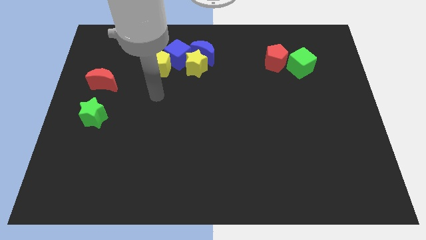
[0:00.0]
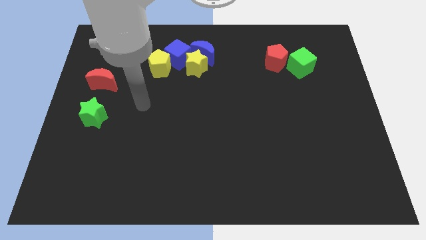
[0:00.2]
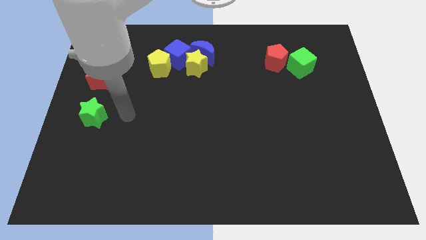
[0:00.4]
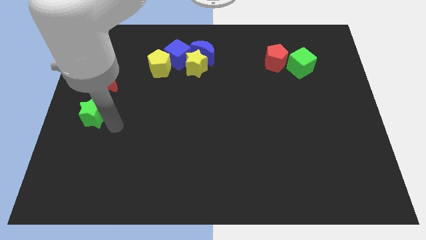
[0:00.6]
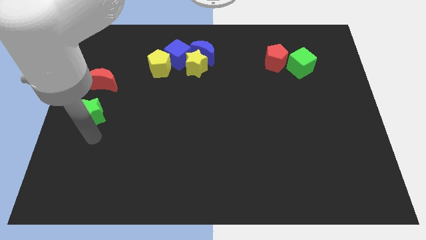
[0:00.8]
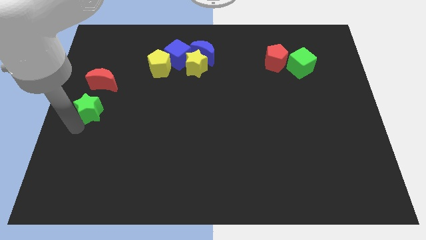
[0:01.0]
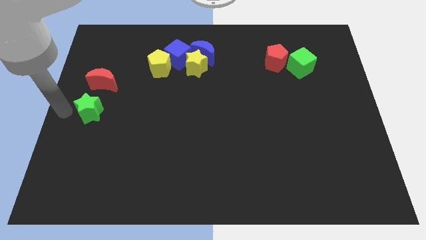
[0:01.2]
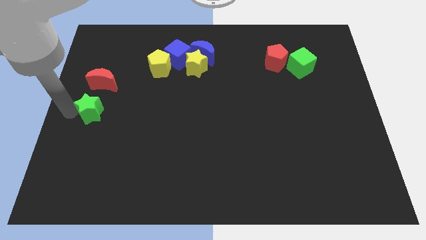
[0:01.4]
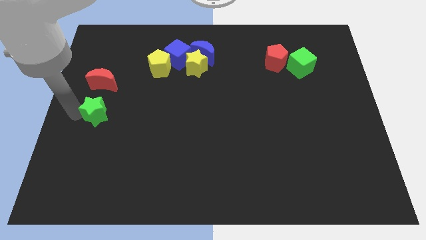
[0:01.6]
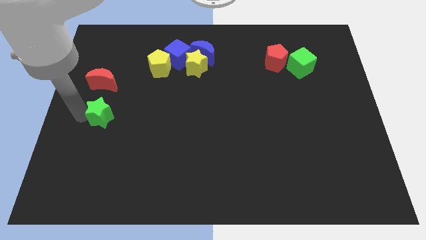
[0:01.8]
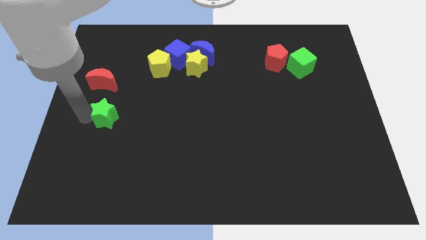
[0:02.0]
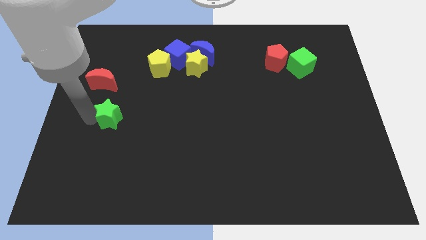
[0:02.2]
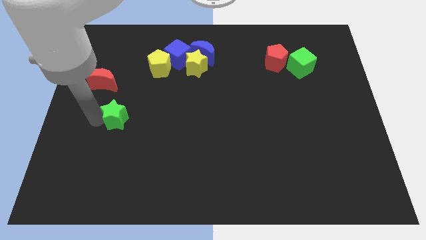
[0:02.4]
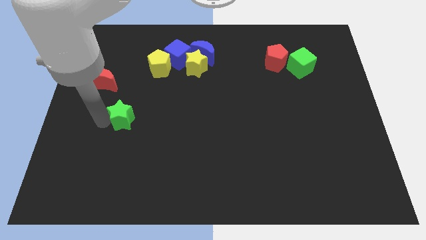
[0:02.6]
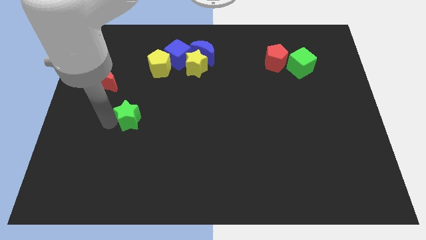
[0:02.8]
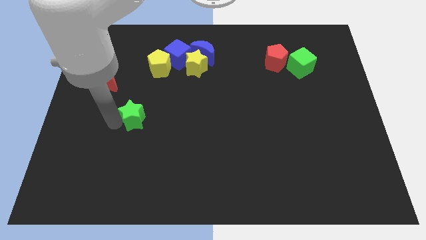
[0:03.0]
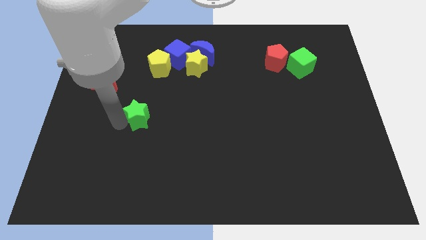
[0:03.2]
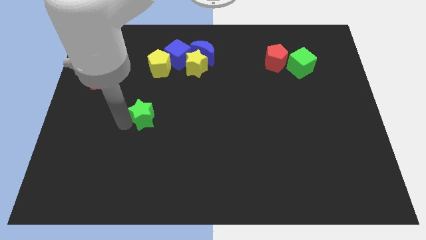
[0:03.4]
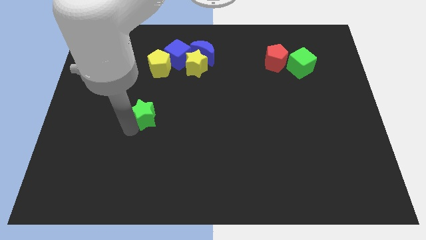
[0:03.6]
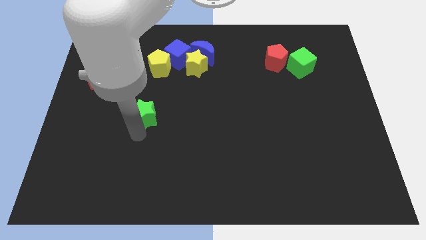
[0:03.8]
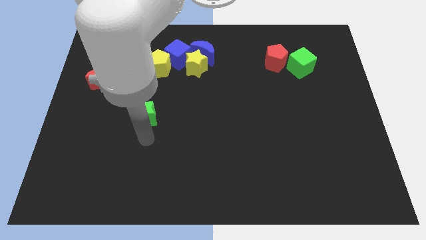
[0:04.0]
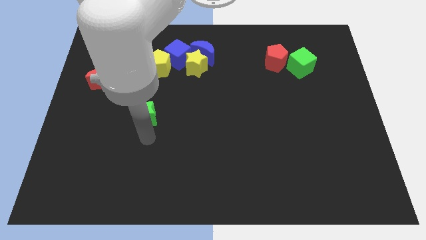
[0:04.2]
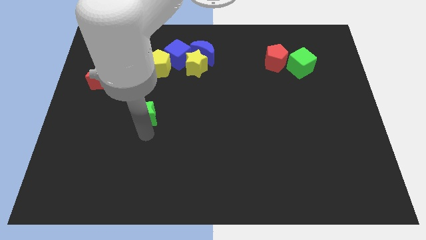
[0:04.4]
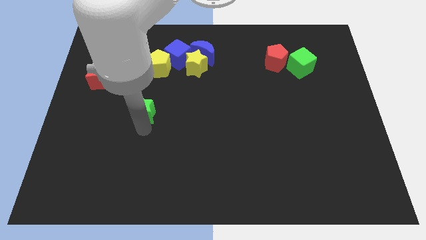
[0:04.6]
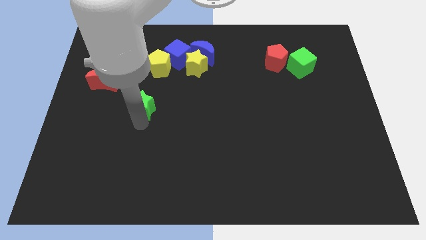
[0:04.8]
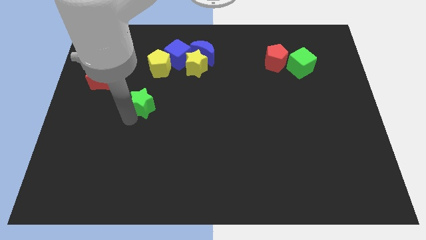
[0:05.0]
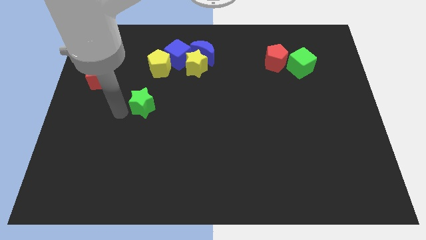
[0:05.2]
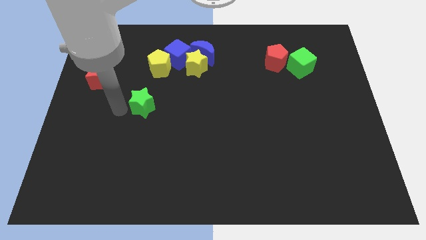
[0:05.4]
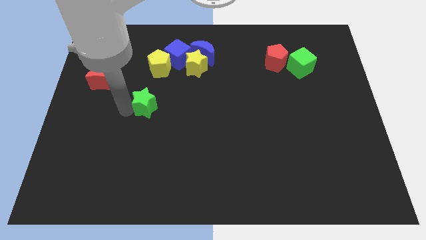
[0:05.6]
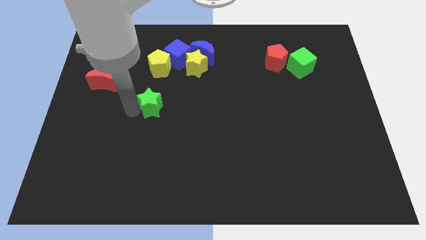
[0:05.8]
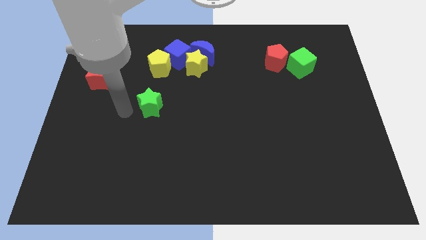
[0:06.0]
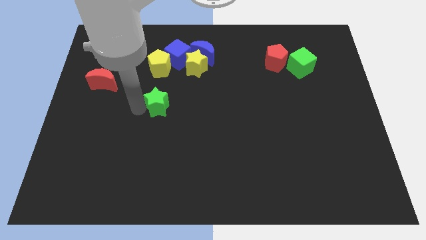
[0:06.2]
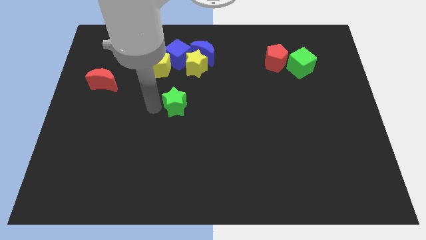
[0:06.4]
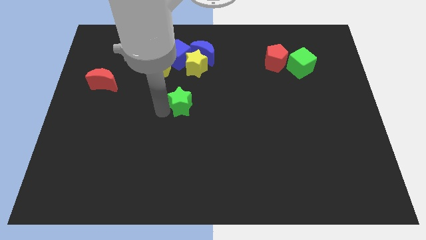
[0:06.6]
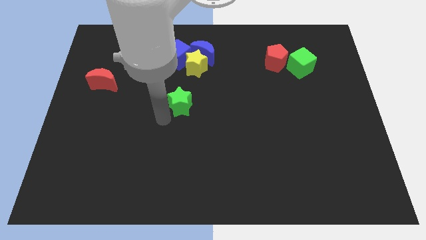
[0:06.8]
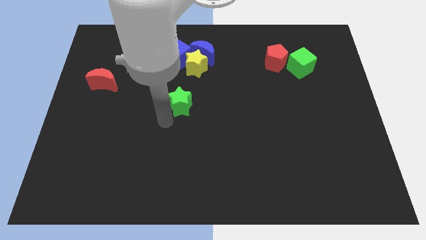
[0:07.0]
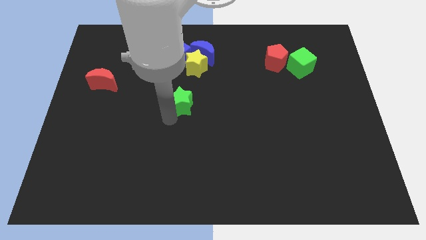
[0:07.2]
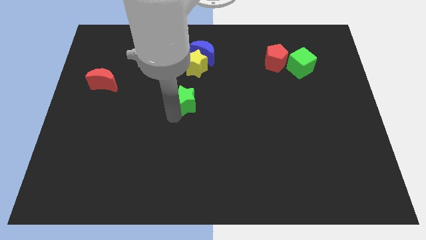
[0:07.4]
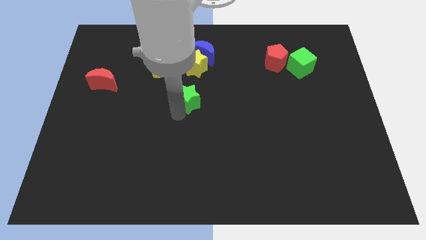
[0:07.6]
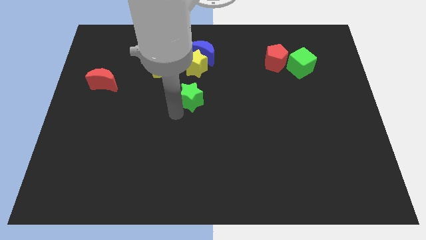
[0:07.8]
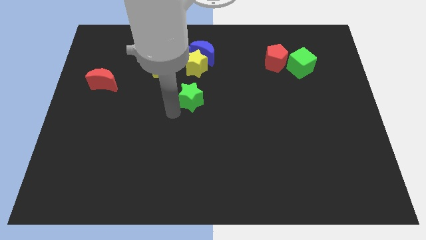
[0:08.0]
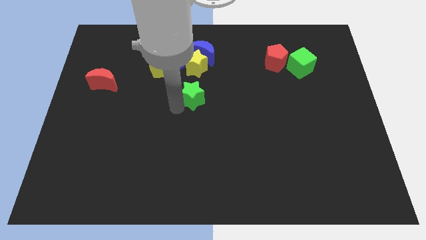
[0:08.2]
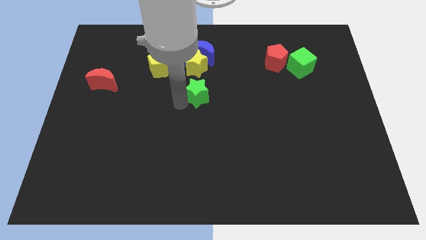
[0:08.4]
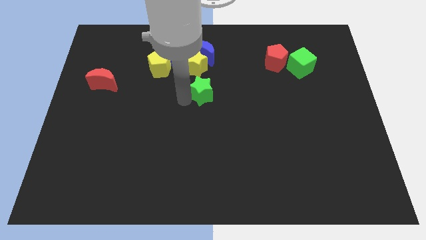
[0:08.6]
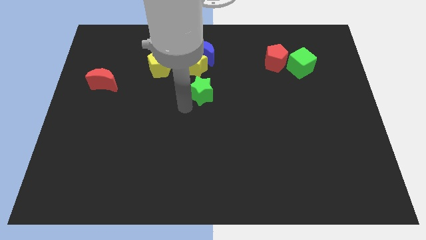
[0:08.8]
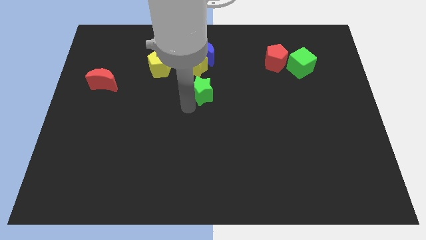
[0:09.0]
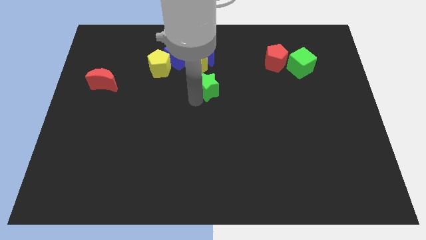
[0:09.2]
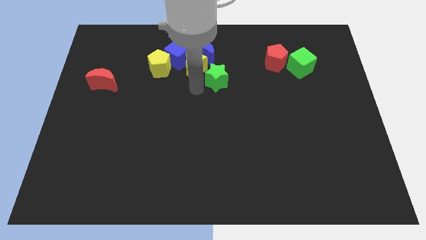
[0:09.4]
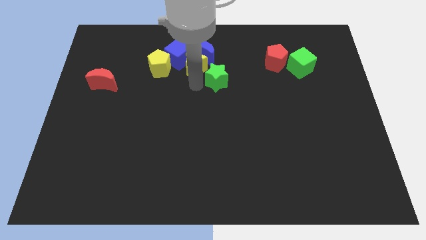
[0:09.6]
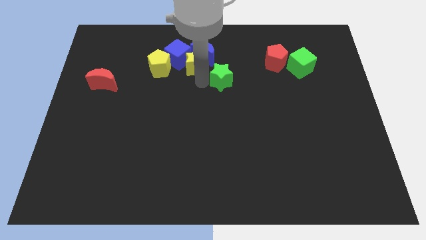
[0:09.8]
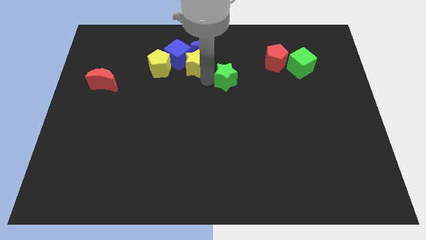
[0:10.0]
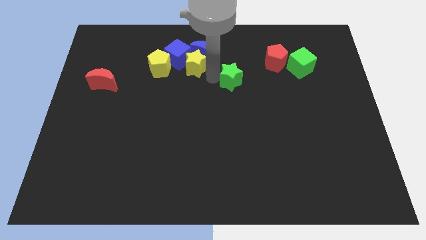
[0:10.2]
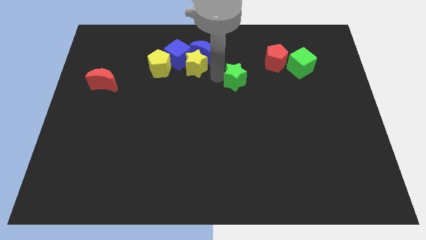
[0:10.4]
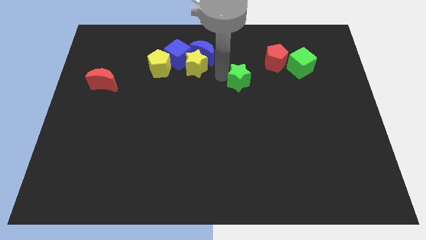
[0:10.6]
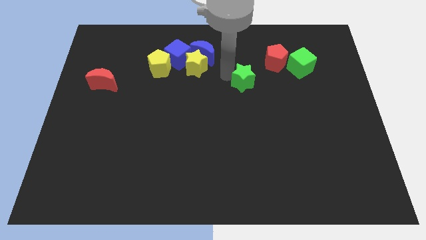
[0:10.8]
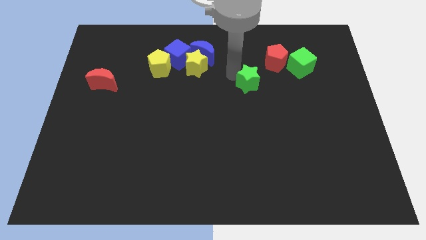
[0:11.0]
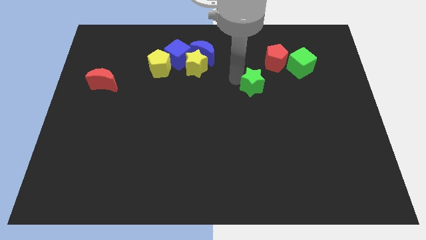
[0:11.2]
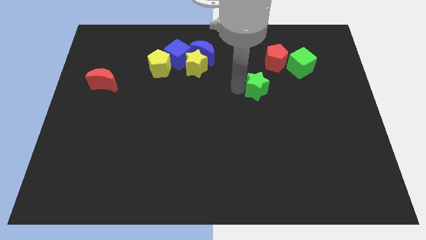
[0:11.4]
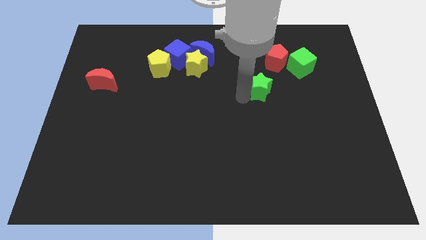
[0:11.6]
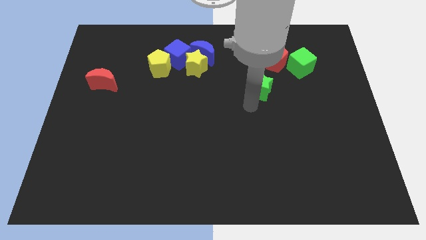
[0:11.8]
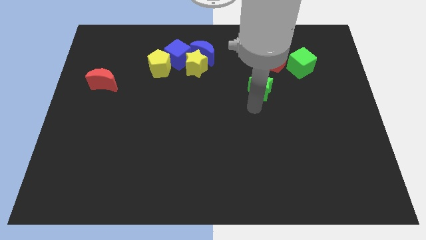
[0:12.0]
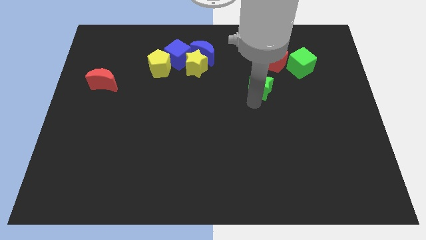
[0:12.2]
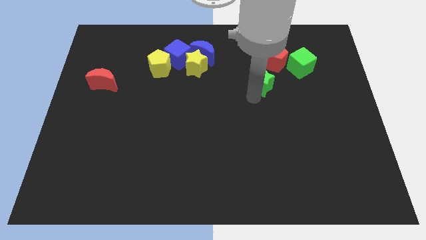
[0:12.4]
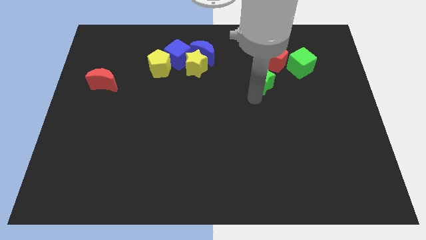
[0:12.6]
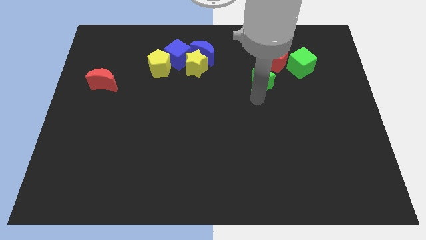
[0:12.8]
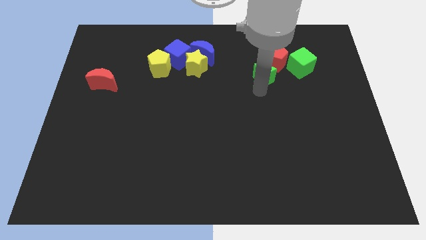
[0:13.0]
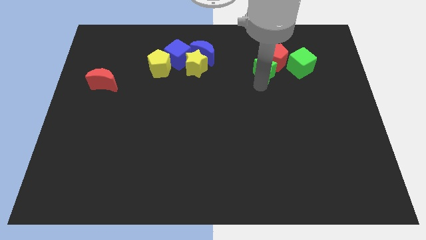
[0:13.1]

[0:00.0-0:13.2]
push the green star next to the red pentagon

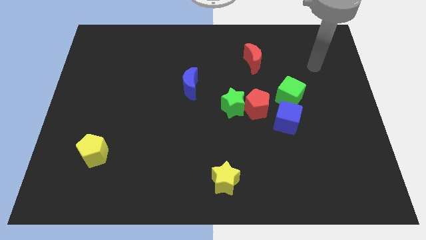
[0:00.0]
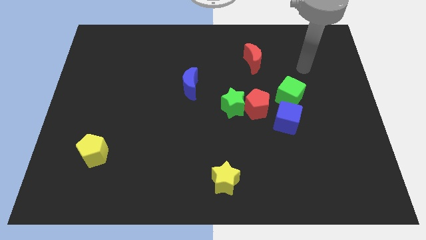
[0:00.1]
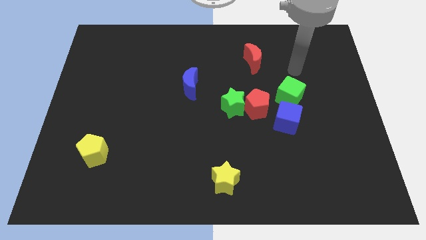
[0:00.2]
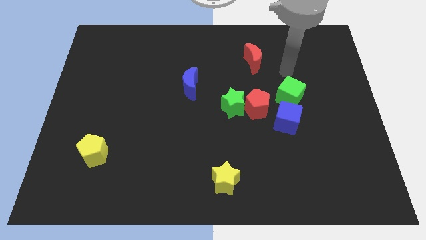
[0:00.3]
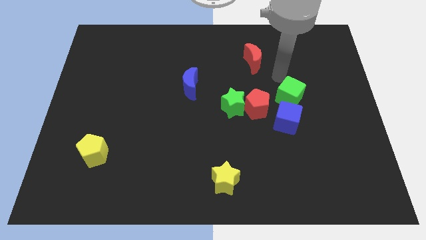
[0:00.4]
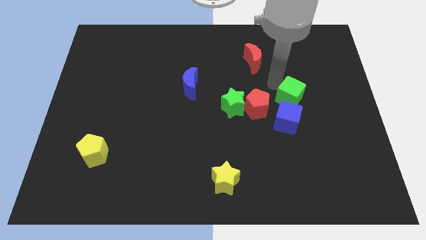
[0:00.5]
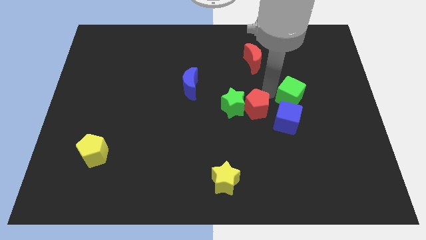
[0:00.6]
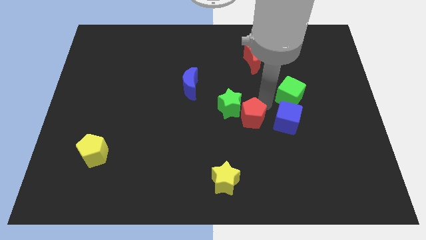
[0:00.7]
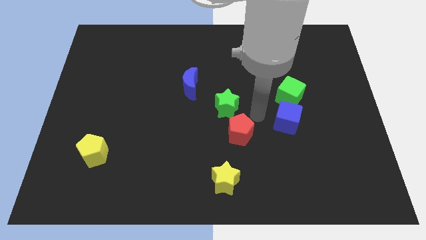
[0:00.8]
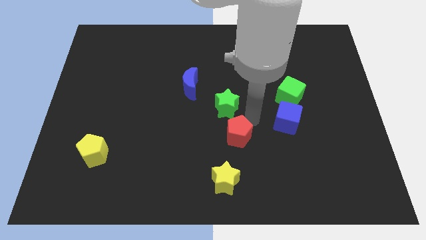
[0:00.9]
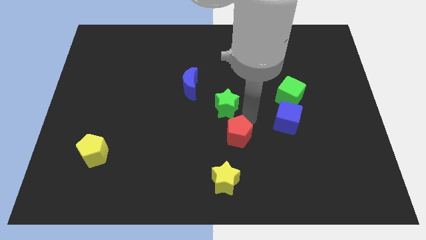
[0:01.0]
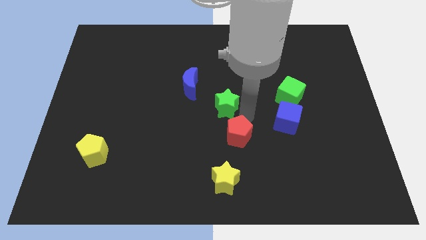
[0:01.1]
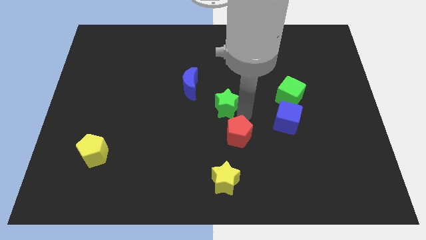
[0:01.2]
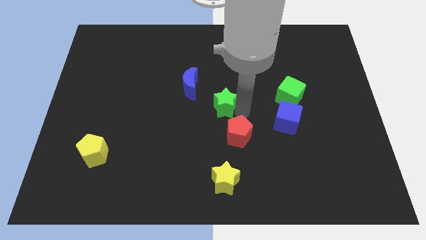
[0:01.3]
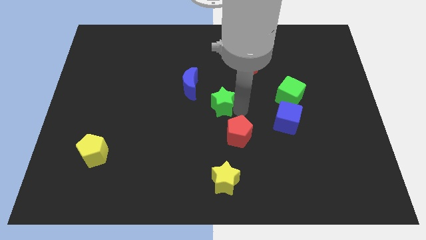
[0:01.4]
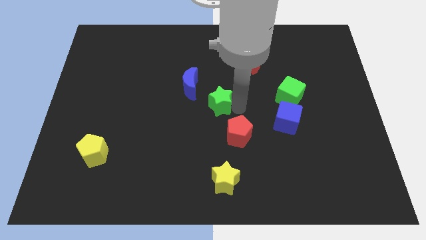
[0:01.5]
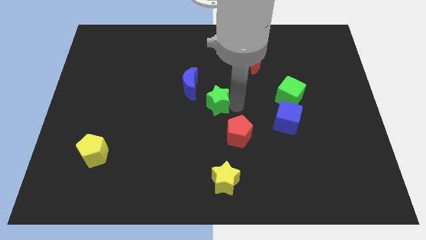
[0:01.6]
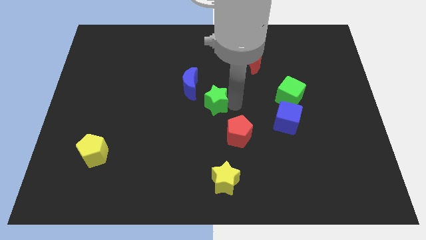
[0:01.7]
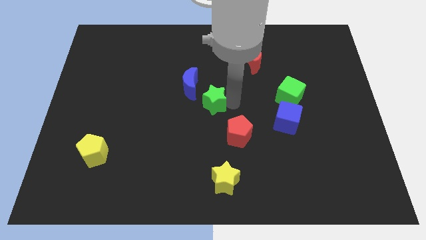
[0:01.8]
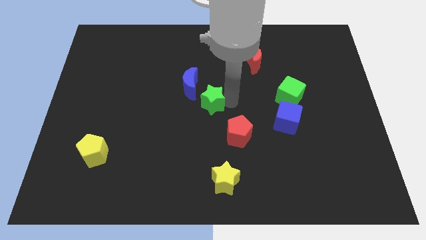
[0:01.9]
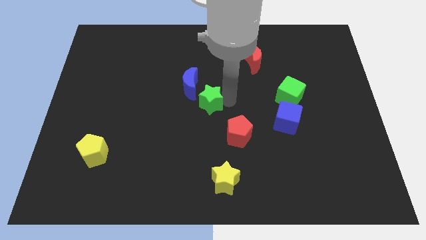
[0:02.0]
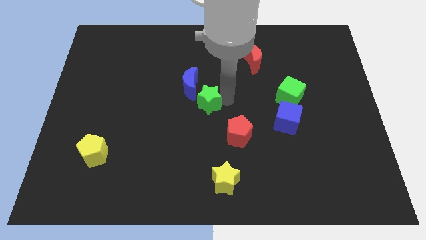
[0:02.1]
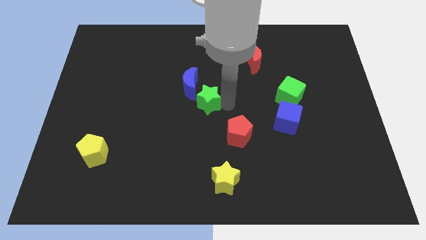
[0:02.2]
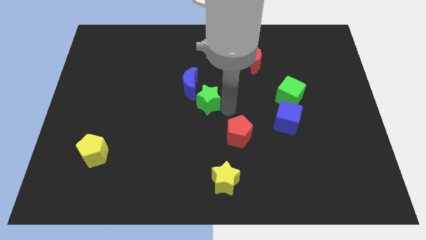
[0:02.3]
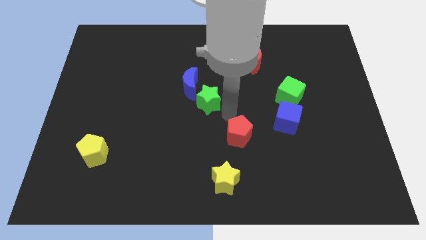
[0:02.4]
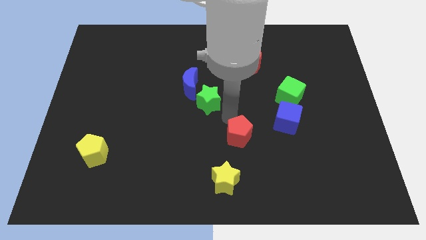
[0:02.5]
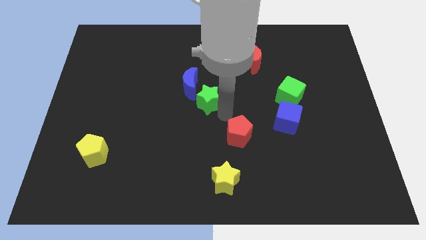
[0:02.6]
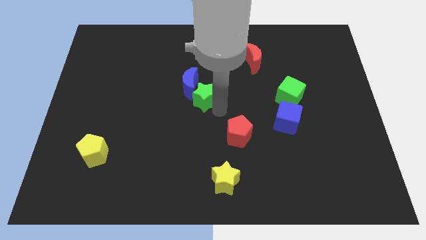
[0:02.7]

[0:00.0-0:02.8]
push the green star to the blue moon
